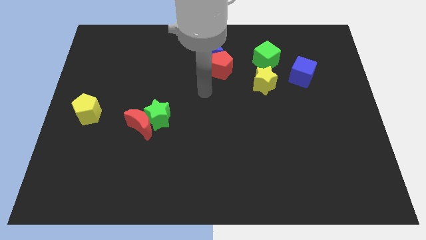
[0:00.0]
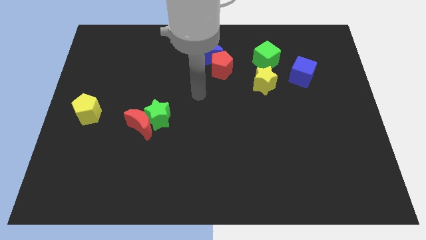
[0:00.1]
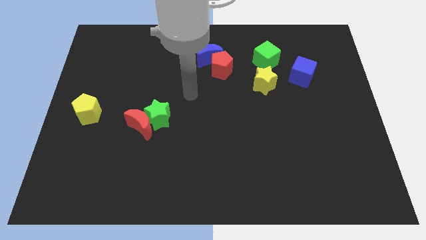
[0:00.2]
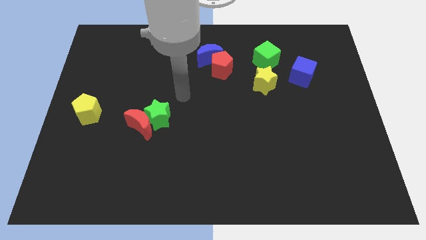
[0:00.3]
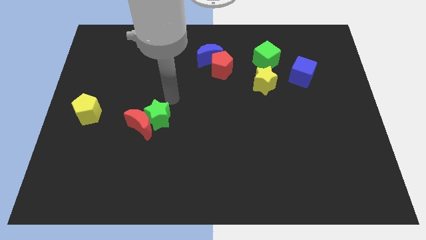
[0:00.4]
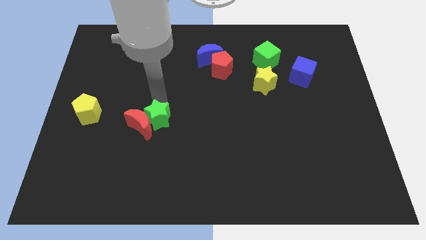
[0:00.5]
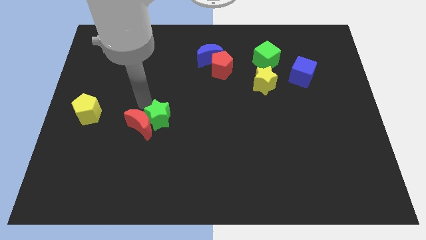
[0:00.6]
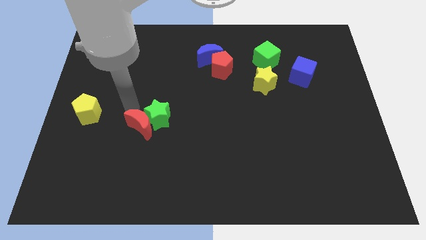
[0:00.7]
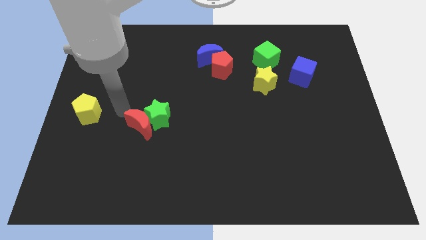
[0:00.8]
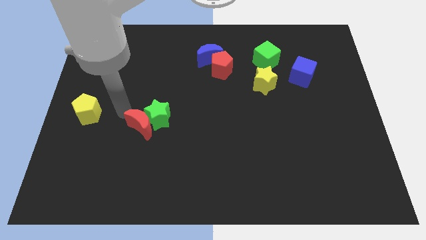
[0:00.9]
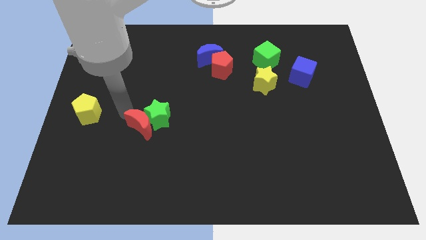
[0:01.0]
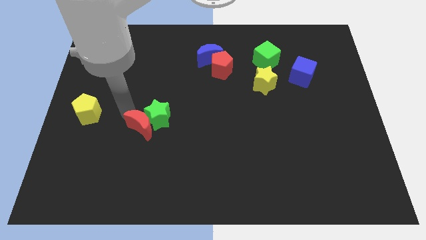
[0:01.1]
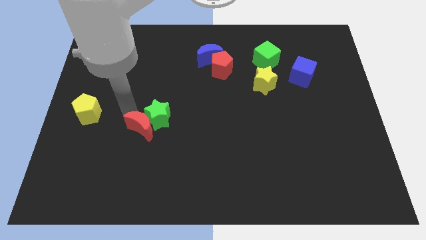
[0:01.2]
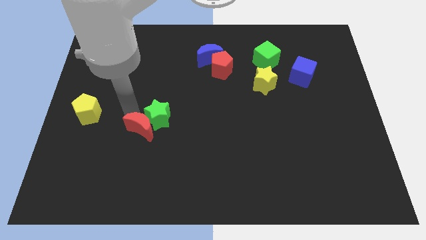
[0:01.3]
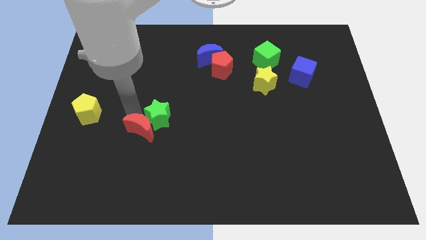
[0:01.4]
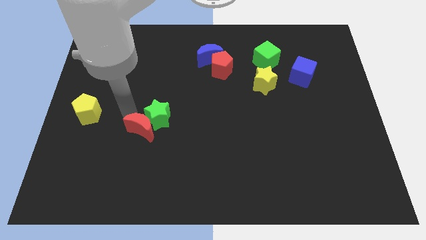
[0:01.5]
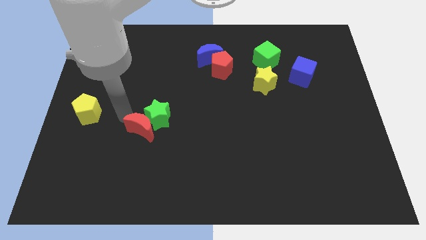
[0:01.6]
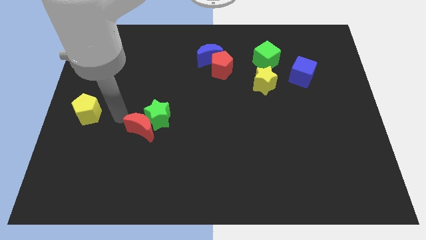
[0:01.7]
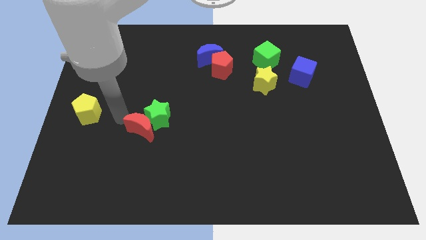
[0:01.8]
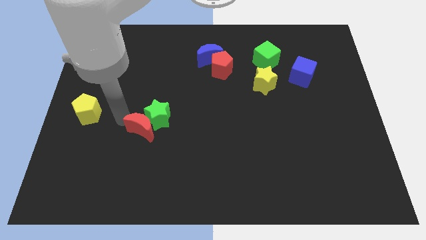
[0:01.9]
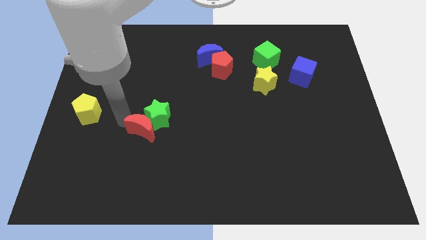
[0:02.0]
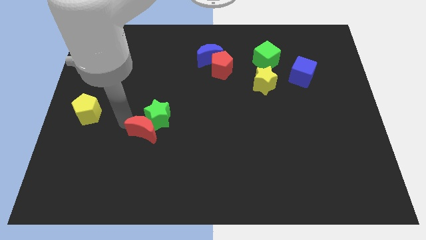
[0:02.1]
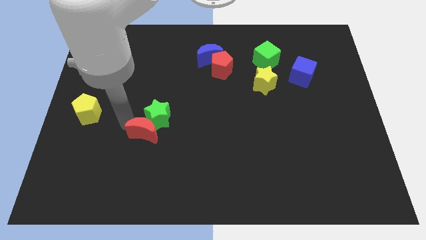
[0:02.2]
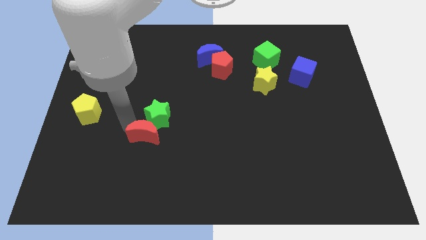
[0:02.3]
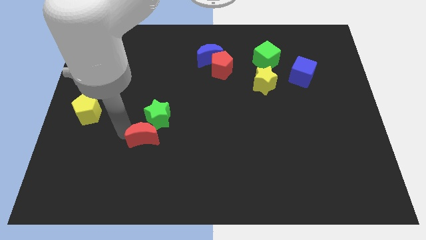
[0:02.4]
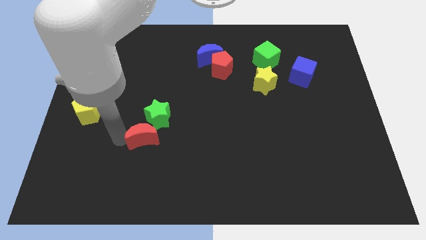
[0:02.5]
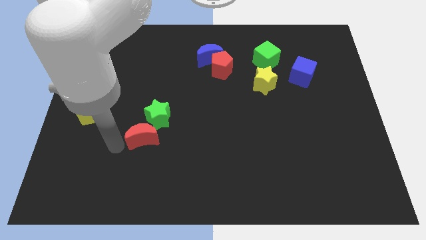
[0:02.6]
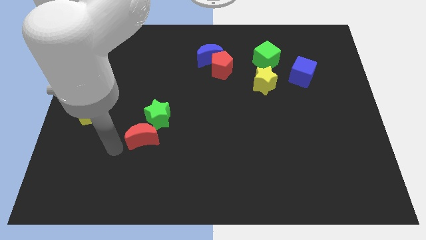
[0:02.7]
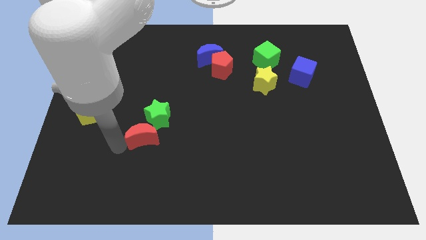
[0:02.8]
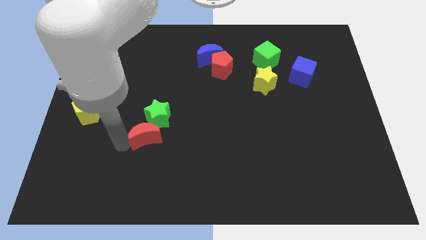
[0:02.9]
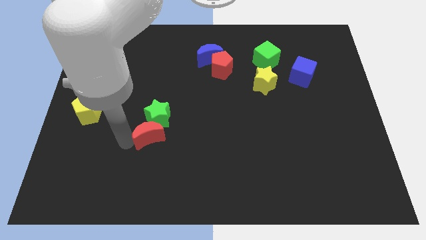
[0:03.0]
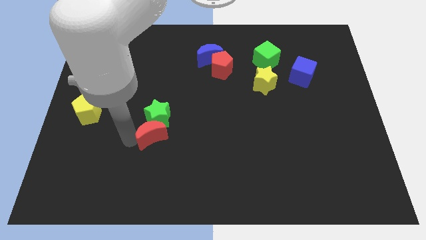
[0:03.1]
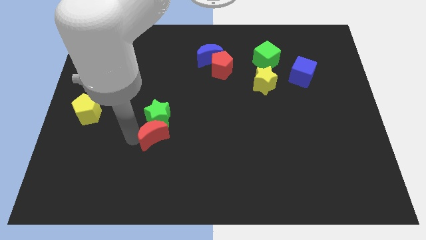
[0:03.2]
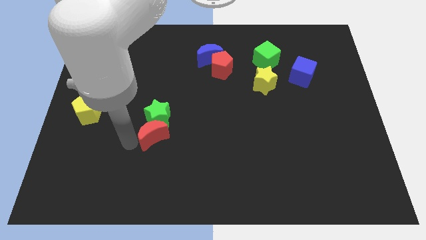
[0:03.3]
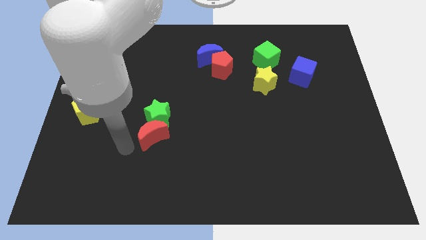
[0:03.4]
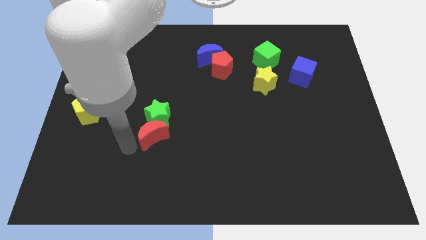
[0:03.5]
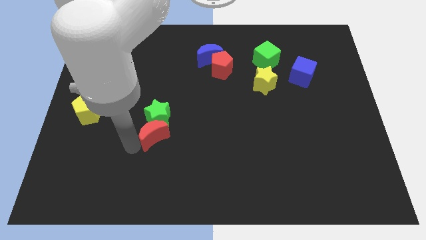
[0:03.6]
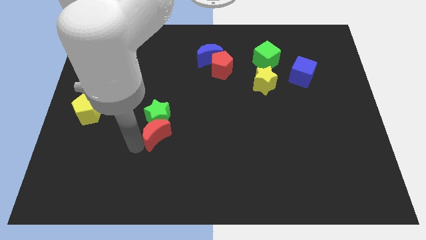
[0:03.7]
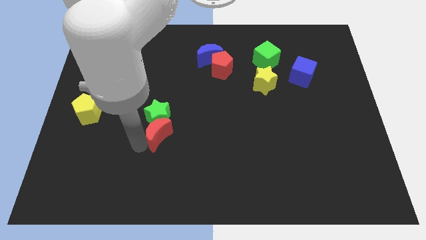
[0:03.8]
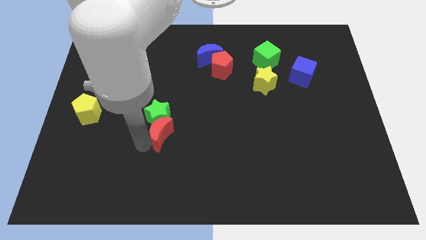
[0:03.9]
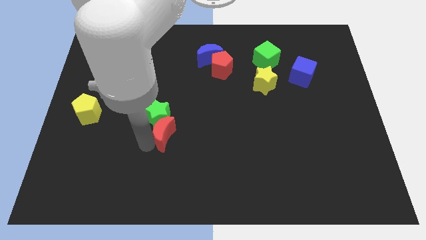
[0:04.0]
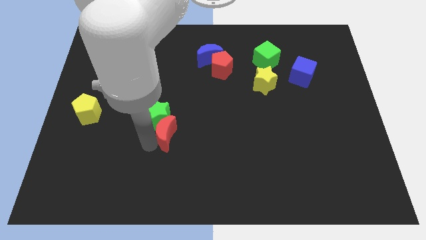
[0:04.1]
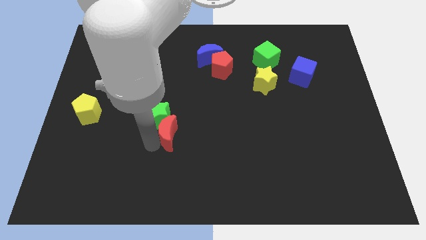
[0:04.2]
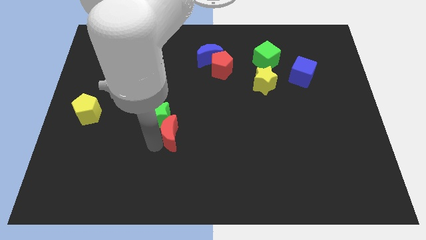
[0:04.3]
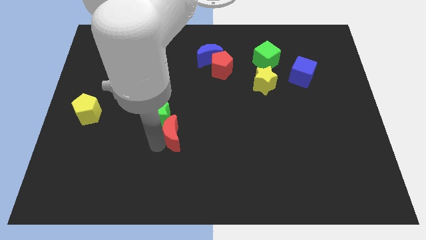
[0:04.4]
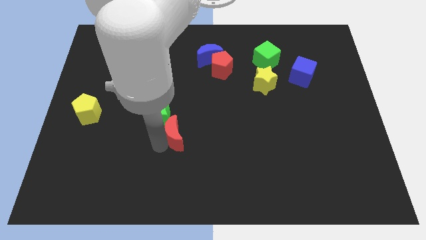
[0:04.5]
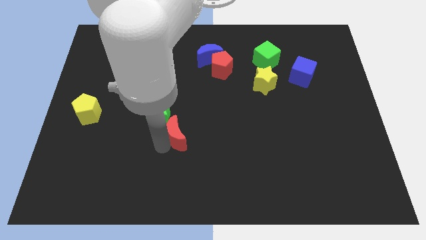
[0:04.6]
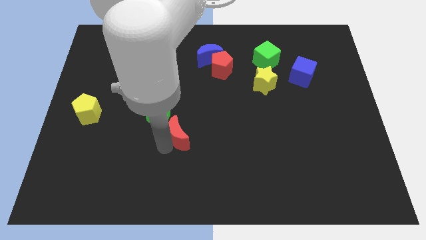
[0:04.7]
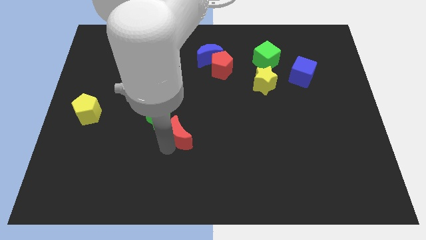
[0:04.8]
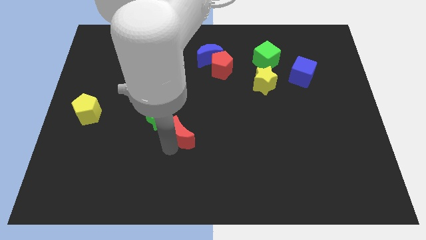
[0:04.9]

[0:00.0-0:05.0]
push the red moon to the center of the board

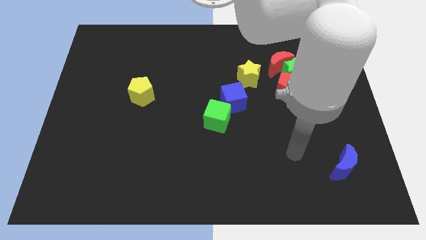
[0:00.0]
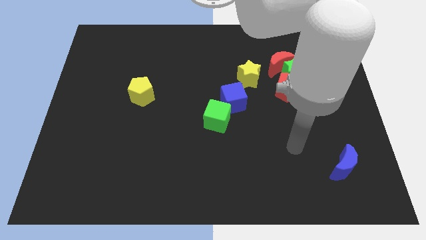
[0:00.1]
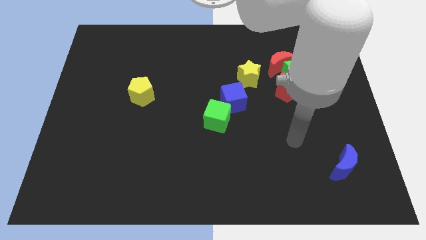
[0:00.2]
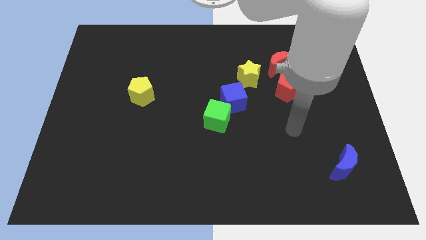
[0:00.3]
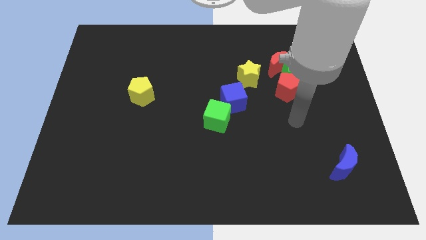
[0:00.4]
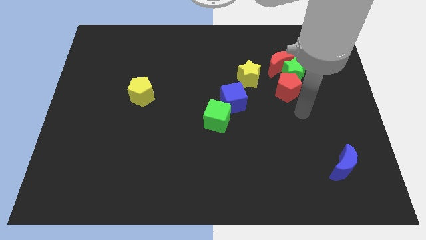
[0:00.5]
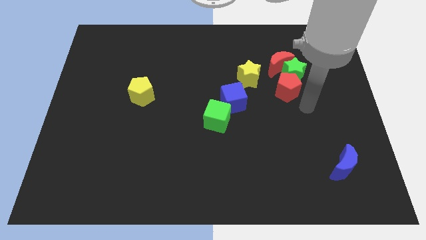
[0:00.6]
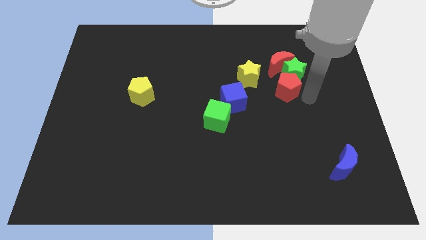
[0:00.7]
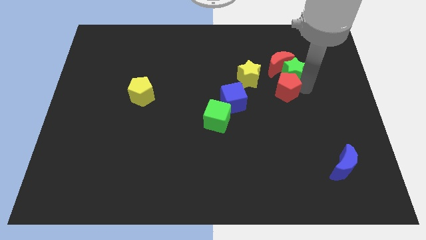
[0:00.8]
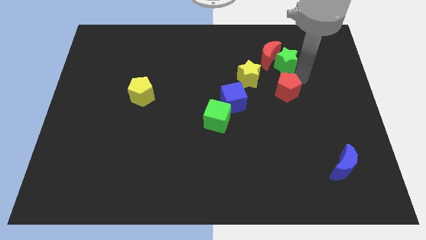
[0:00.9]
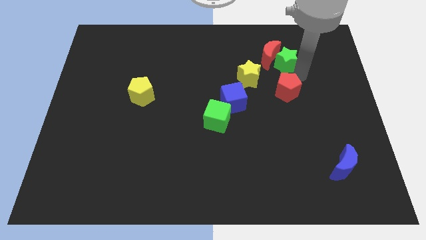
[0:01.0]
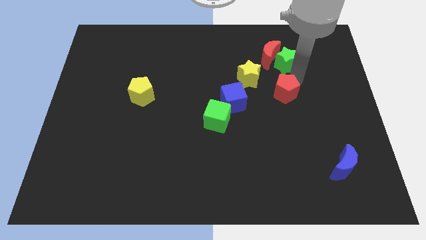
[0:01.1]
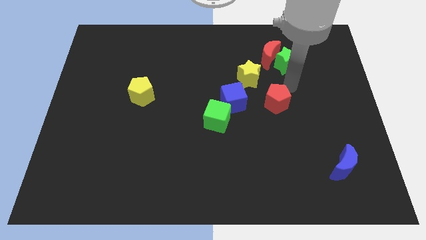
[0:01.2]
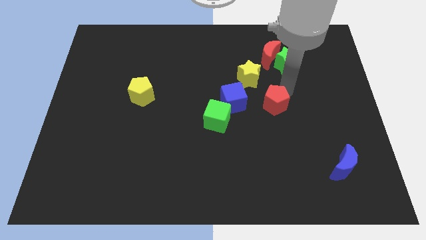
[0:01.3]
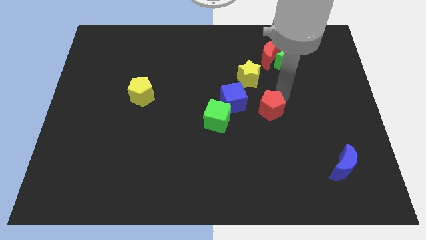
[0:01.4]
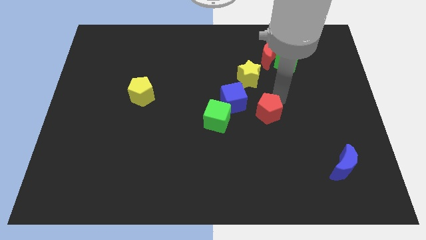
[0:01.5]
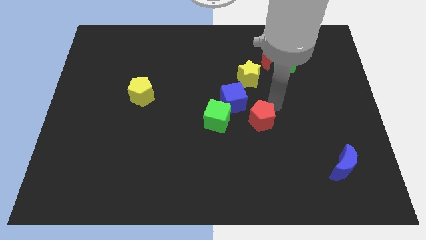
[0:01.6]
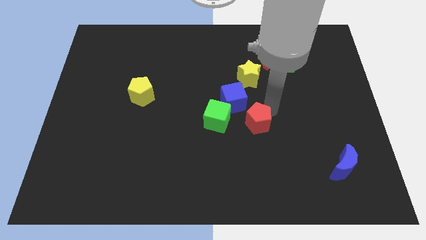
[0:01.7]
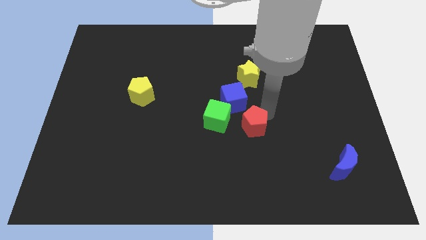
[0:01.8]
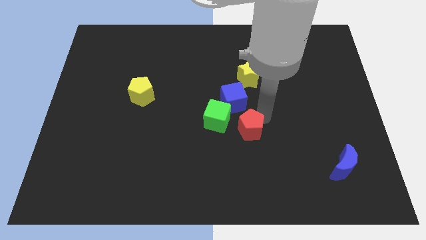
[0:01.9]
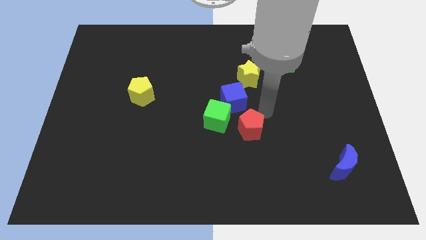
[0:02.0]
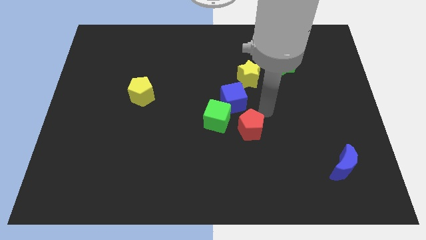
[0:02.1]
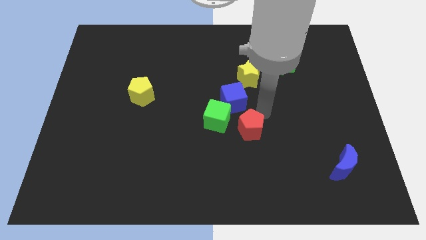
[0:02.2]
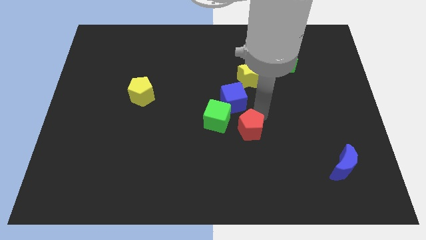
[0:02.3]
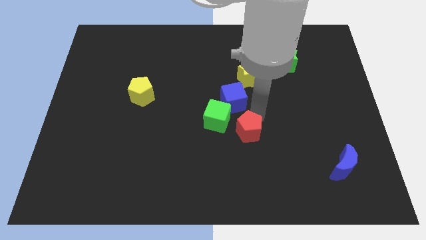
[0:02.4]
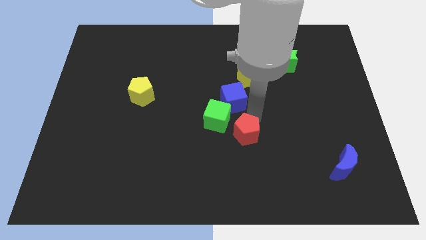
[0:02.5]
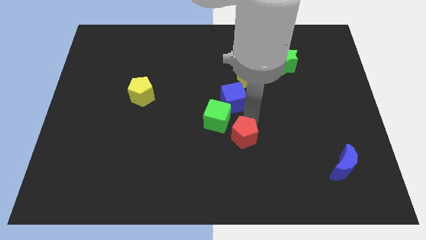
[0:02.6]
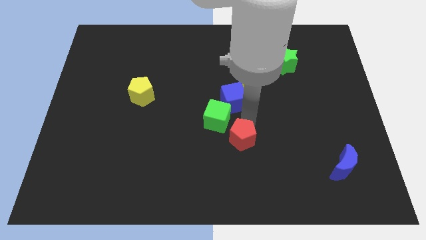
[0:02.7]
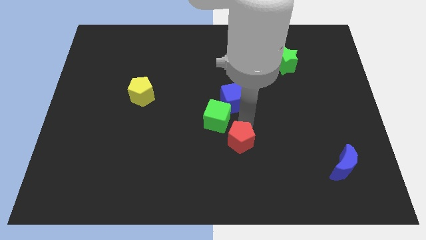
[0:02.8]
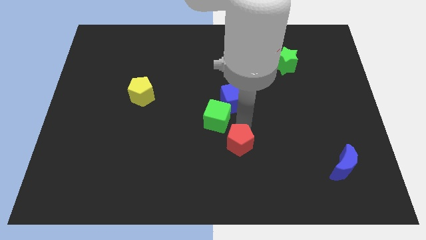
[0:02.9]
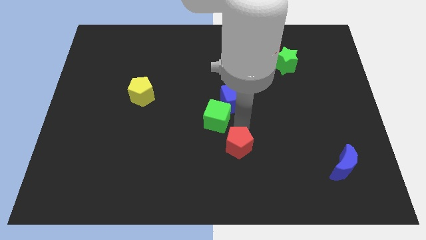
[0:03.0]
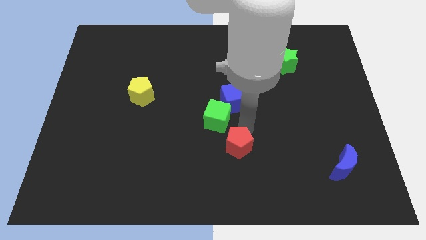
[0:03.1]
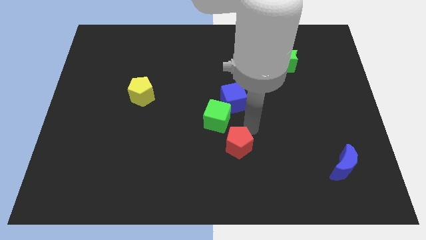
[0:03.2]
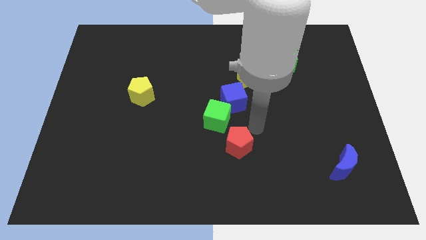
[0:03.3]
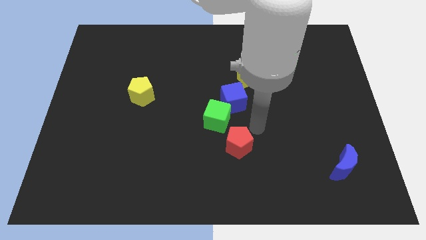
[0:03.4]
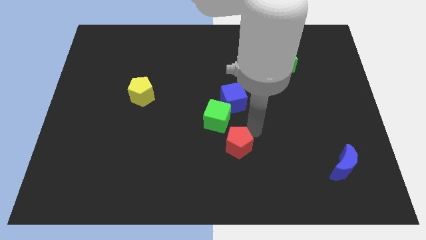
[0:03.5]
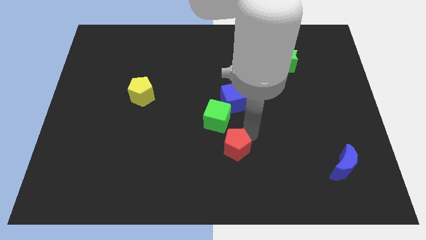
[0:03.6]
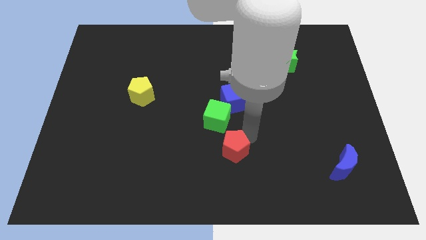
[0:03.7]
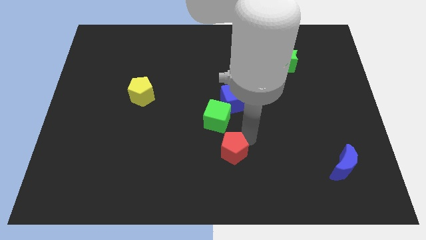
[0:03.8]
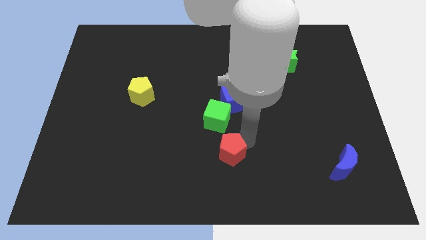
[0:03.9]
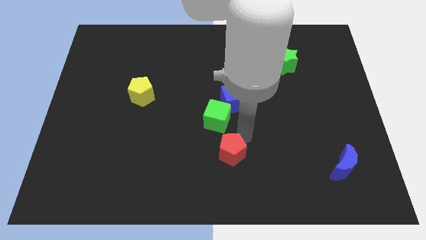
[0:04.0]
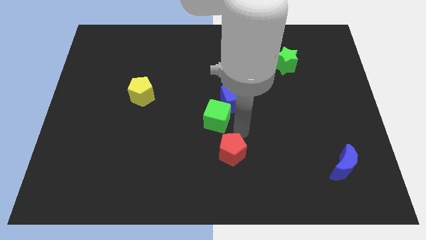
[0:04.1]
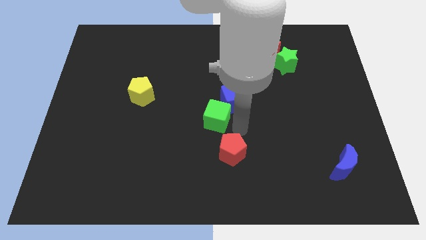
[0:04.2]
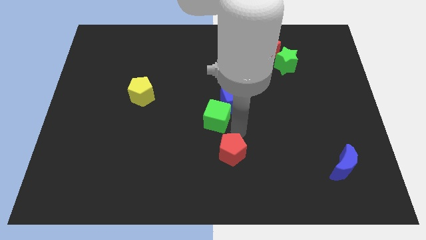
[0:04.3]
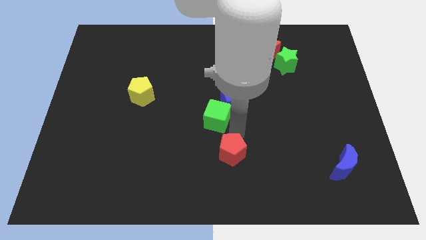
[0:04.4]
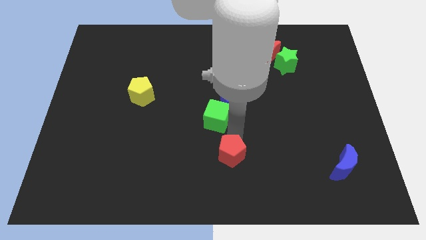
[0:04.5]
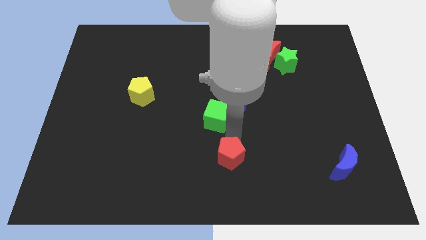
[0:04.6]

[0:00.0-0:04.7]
put the red pentagon to the bottom
